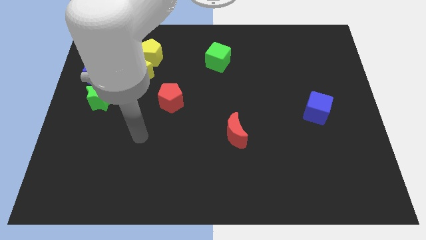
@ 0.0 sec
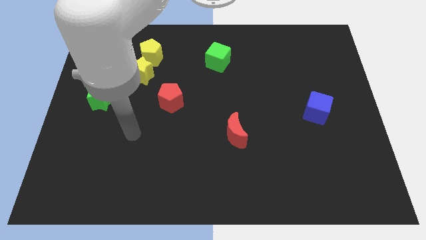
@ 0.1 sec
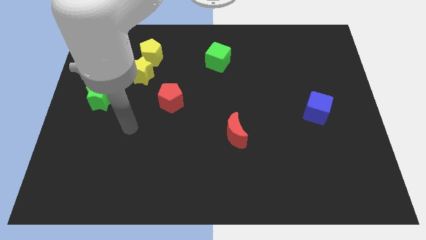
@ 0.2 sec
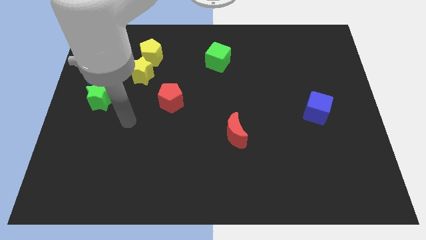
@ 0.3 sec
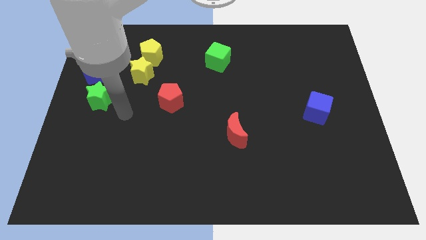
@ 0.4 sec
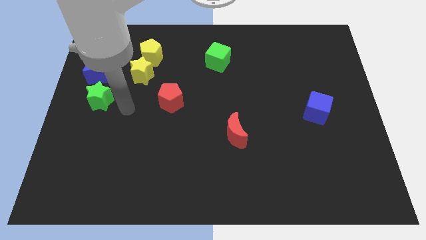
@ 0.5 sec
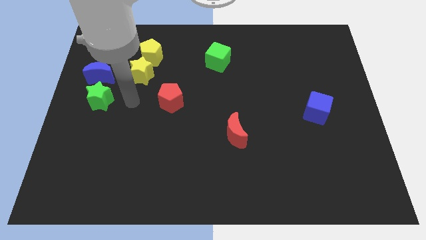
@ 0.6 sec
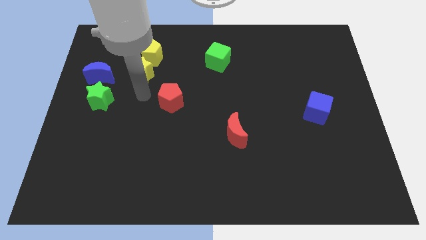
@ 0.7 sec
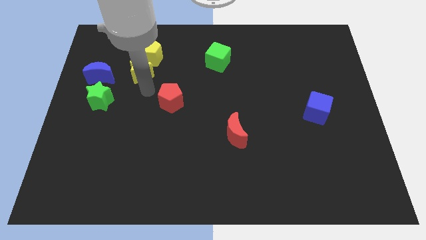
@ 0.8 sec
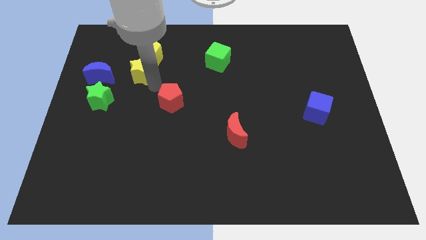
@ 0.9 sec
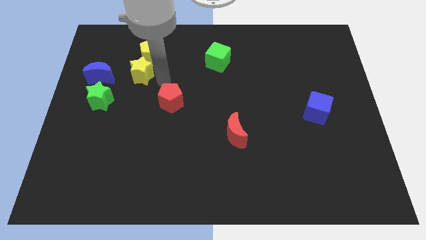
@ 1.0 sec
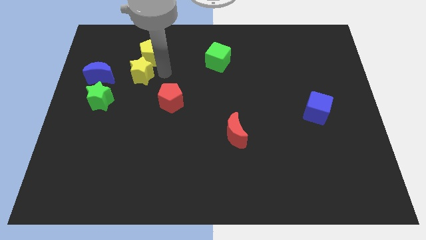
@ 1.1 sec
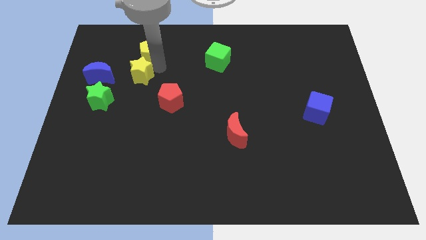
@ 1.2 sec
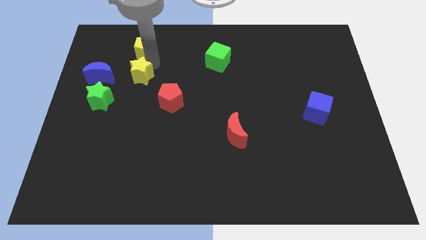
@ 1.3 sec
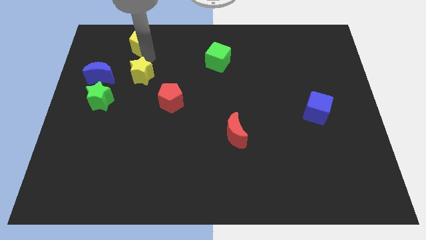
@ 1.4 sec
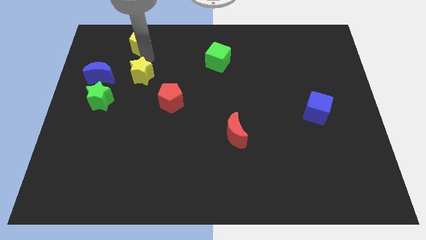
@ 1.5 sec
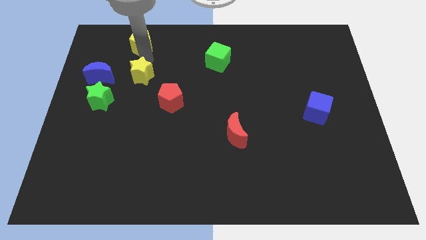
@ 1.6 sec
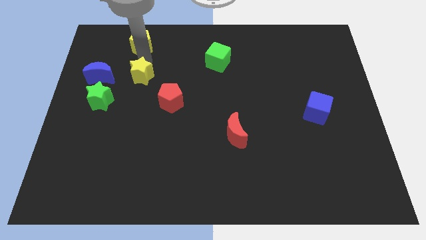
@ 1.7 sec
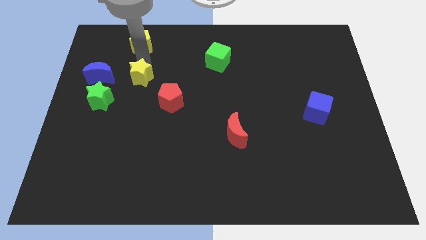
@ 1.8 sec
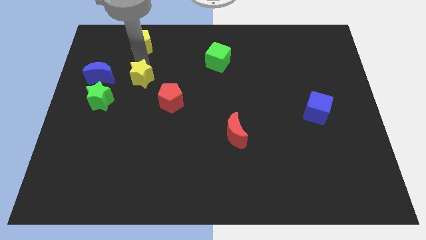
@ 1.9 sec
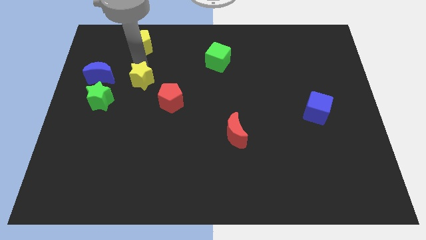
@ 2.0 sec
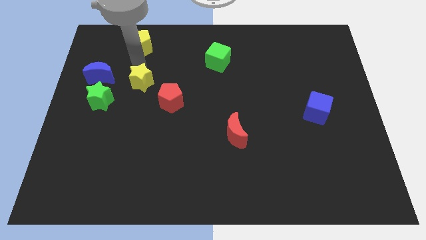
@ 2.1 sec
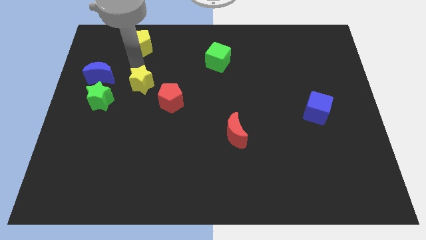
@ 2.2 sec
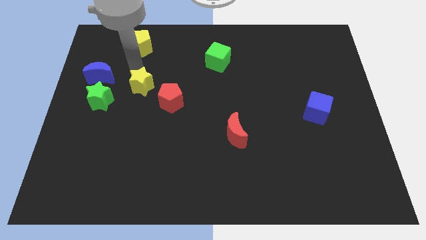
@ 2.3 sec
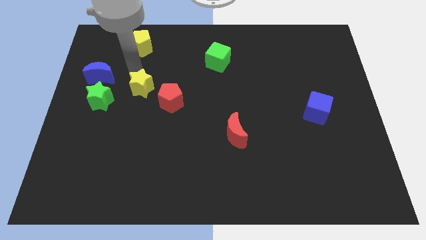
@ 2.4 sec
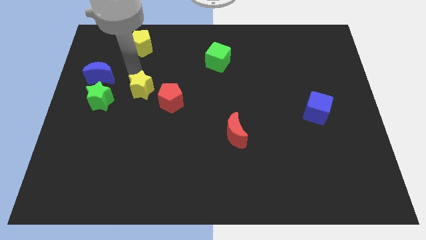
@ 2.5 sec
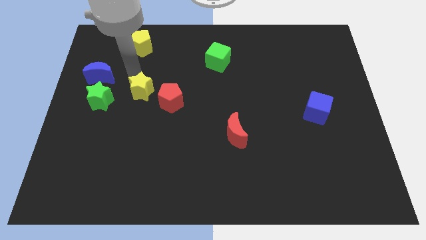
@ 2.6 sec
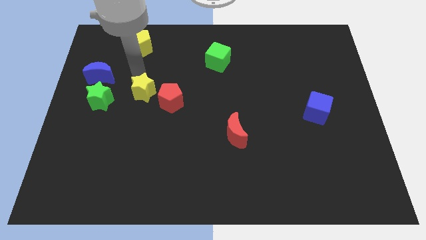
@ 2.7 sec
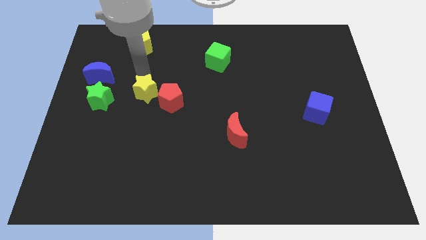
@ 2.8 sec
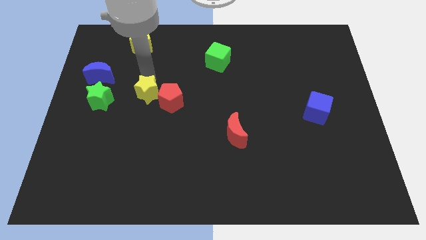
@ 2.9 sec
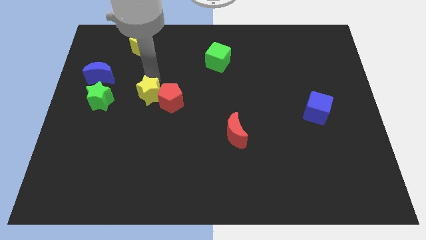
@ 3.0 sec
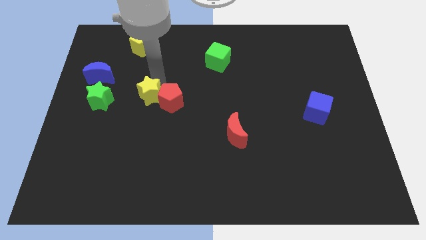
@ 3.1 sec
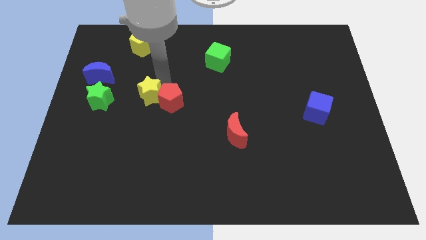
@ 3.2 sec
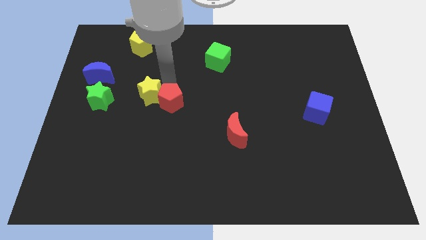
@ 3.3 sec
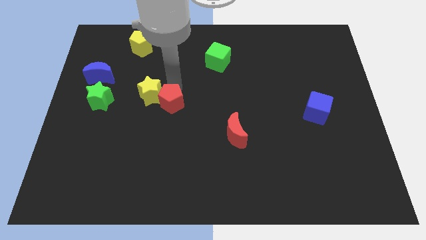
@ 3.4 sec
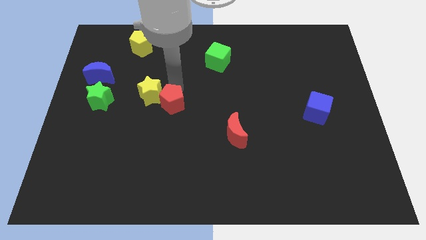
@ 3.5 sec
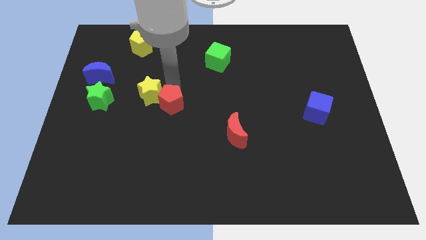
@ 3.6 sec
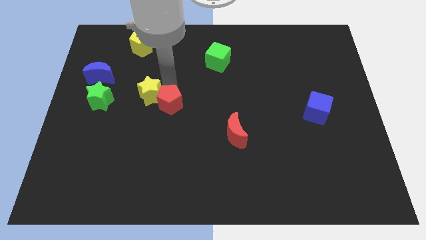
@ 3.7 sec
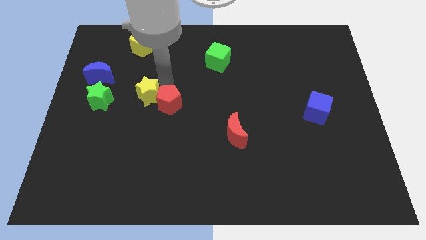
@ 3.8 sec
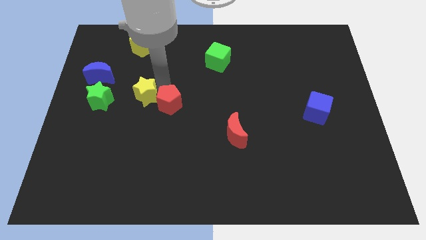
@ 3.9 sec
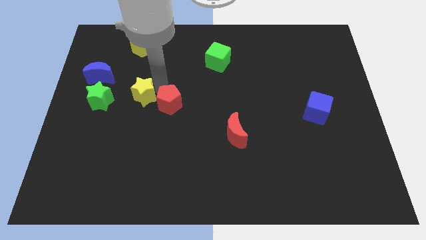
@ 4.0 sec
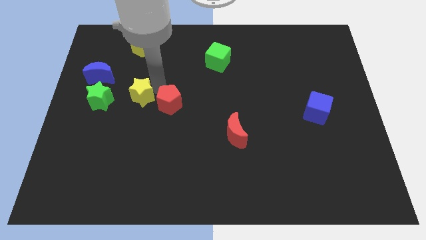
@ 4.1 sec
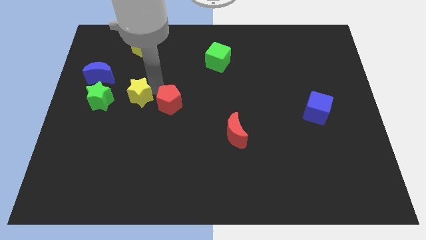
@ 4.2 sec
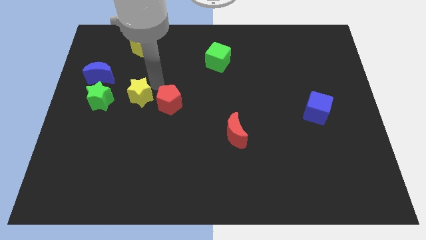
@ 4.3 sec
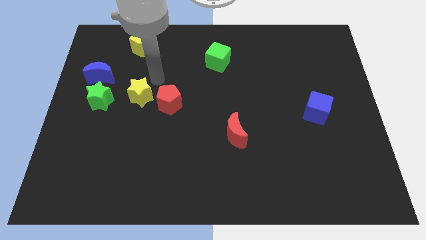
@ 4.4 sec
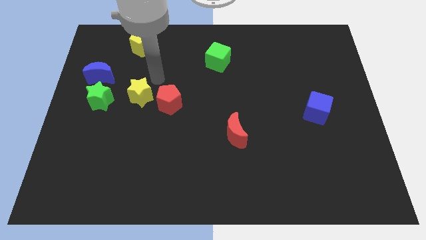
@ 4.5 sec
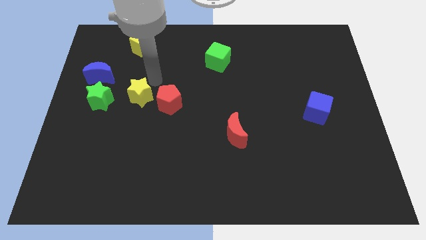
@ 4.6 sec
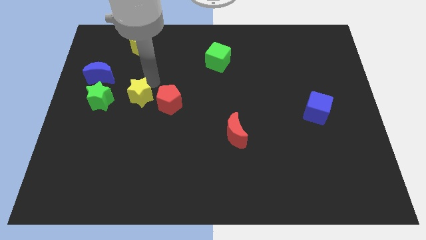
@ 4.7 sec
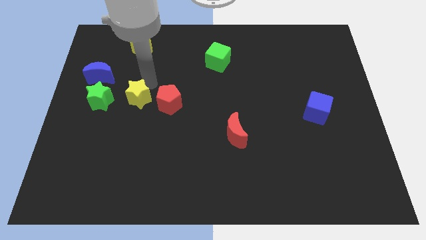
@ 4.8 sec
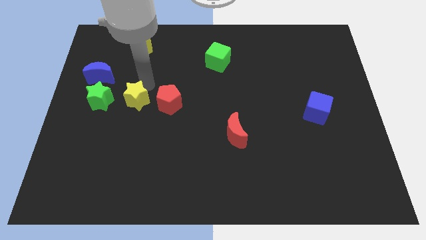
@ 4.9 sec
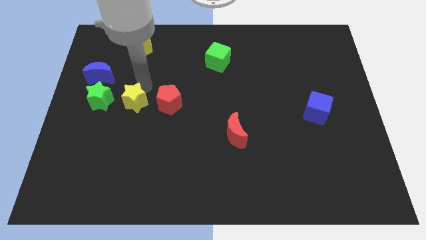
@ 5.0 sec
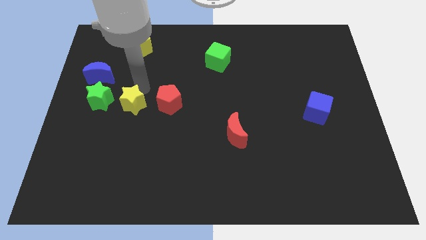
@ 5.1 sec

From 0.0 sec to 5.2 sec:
move the yellow star diagonally down and to the right of the green star

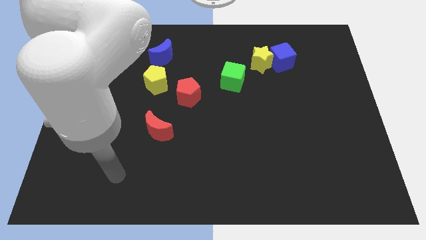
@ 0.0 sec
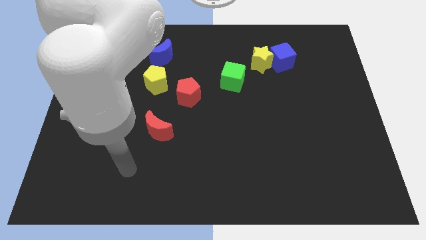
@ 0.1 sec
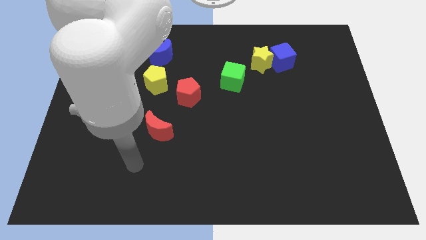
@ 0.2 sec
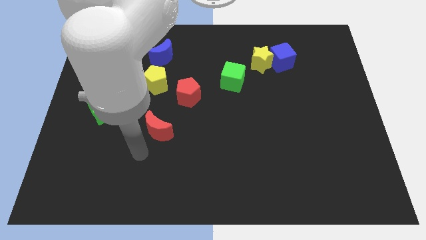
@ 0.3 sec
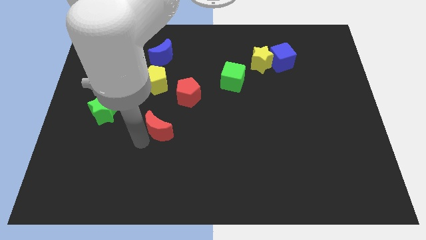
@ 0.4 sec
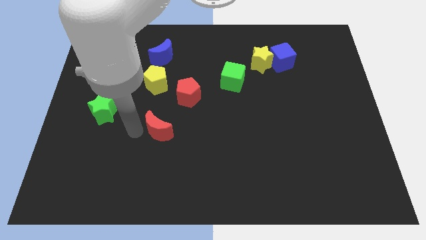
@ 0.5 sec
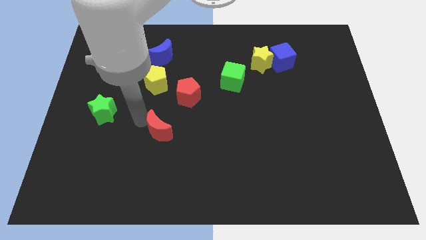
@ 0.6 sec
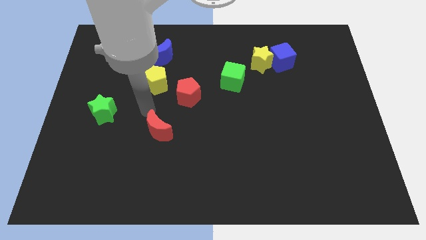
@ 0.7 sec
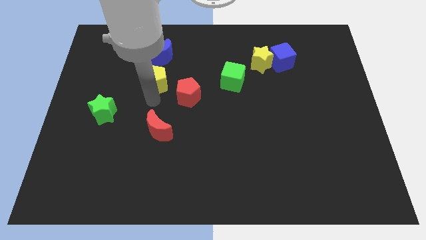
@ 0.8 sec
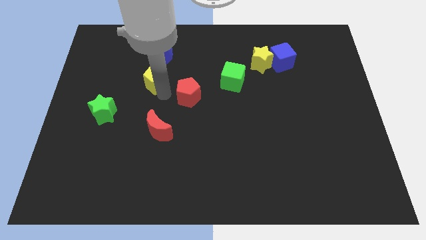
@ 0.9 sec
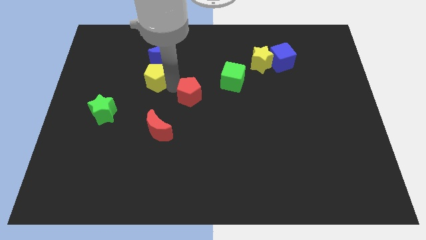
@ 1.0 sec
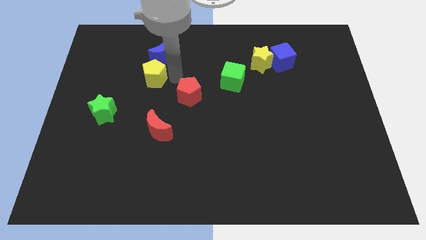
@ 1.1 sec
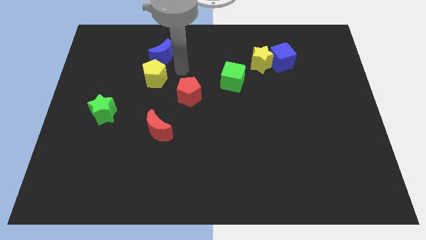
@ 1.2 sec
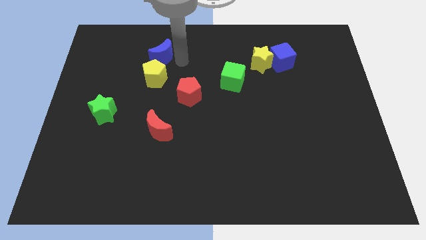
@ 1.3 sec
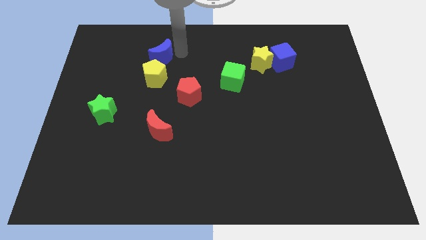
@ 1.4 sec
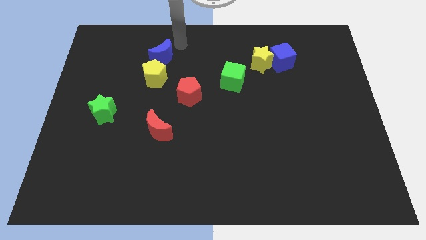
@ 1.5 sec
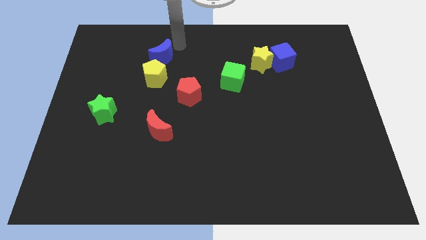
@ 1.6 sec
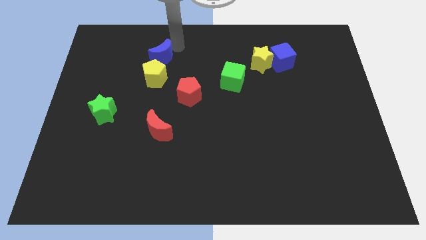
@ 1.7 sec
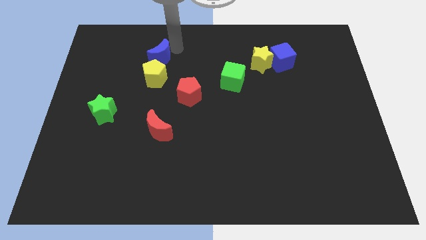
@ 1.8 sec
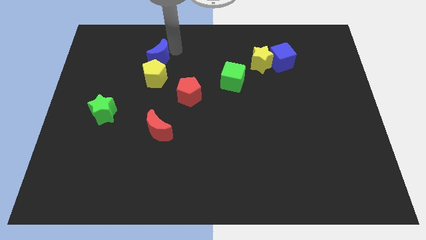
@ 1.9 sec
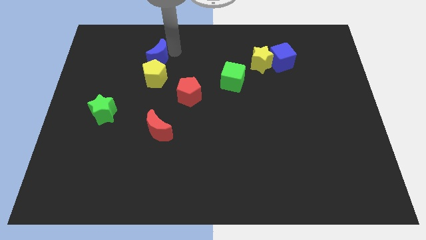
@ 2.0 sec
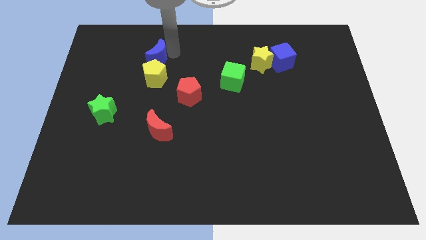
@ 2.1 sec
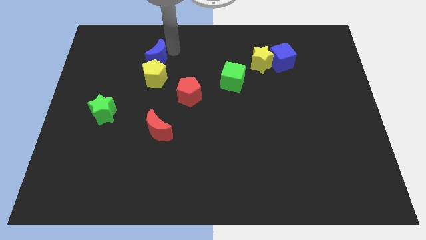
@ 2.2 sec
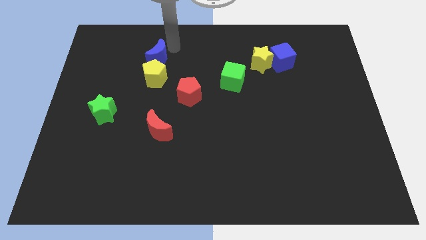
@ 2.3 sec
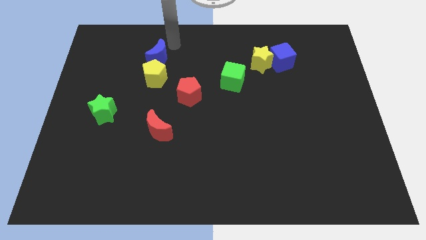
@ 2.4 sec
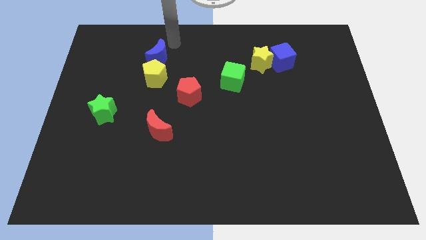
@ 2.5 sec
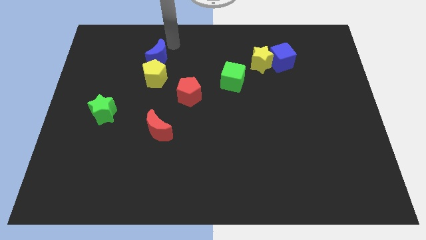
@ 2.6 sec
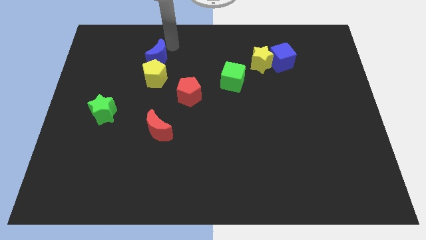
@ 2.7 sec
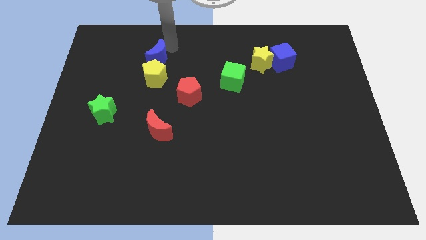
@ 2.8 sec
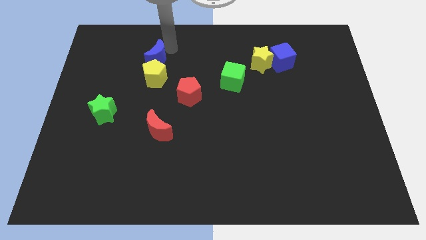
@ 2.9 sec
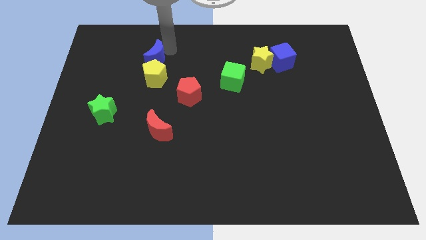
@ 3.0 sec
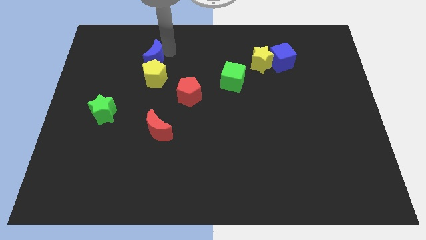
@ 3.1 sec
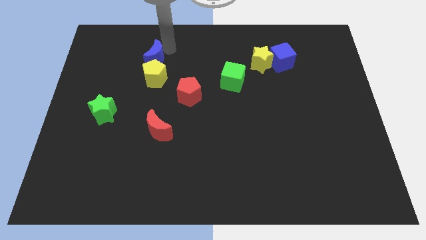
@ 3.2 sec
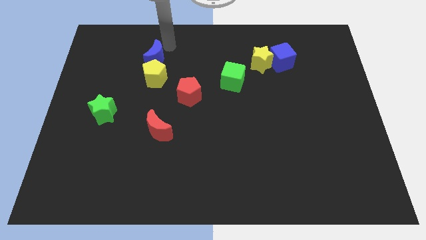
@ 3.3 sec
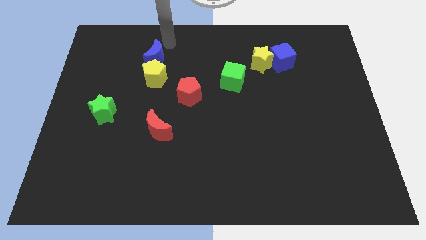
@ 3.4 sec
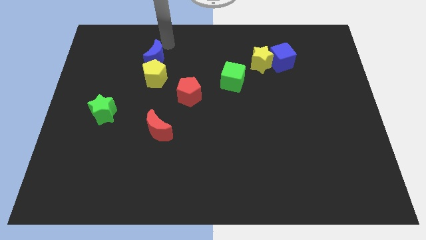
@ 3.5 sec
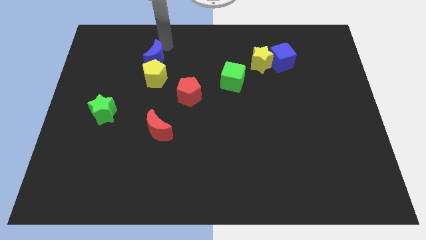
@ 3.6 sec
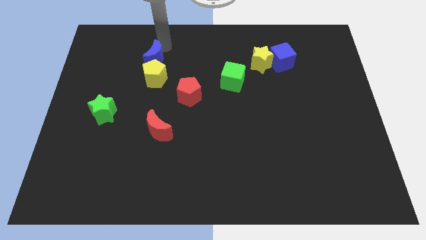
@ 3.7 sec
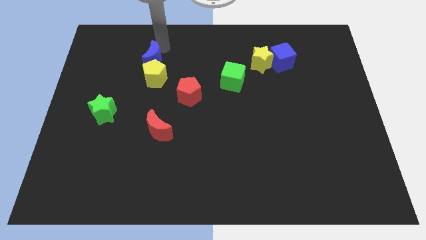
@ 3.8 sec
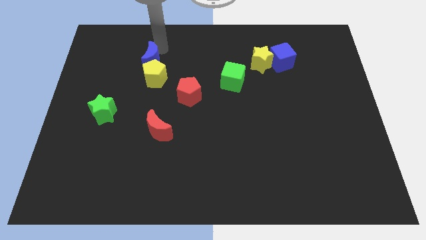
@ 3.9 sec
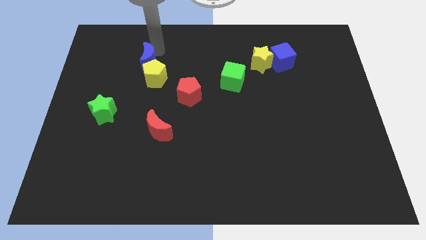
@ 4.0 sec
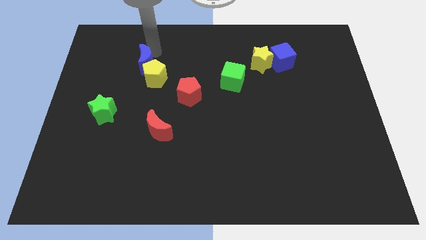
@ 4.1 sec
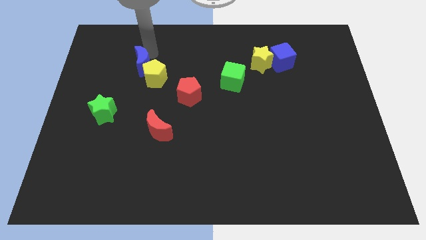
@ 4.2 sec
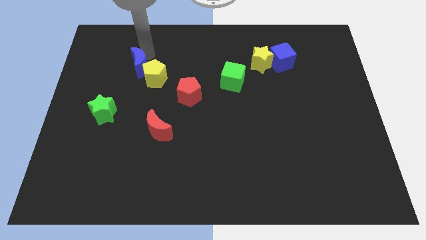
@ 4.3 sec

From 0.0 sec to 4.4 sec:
push the blue moon to the left side of the yellow pentagon
